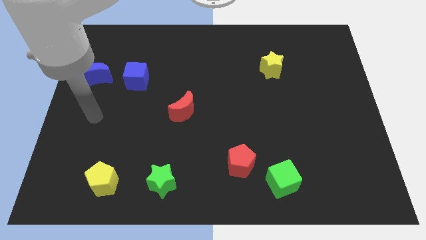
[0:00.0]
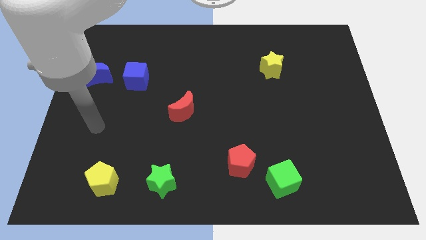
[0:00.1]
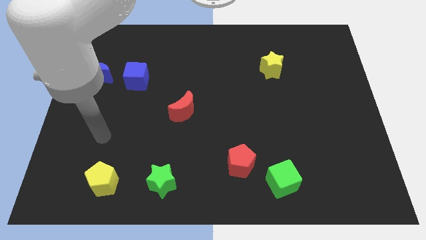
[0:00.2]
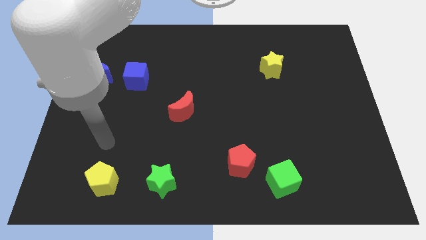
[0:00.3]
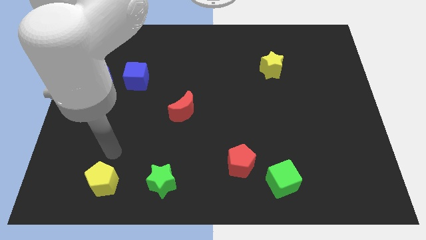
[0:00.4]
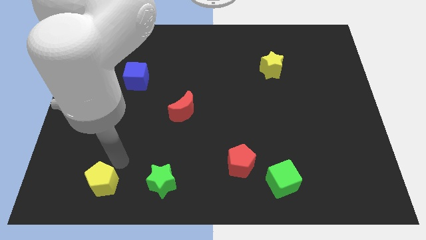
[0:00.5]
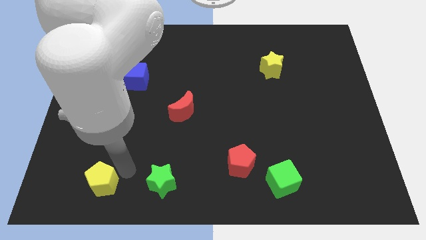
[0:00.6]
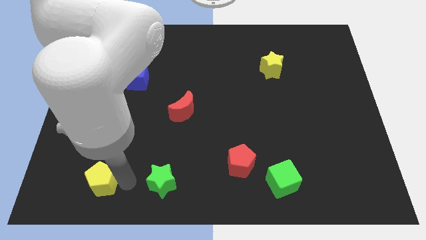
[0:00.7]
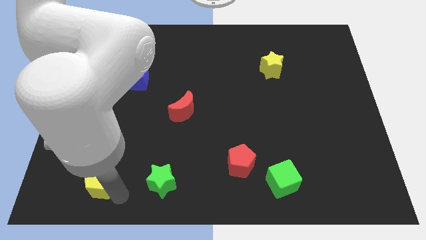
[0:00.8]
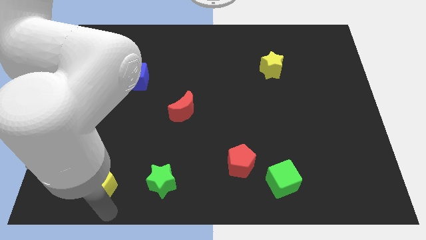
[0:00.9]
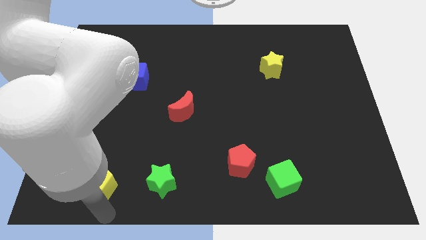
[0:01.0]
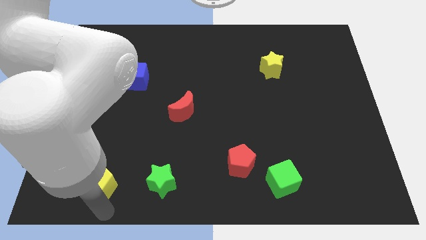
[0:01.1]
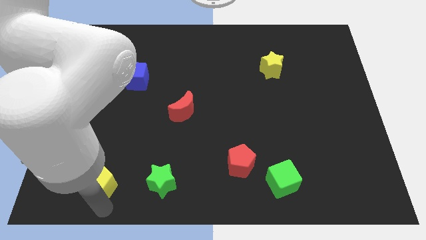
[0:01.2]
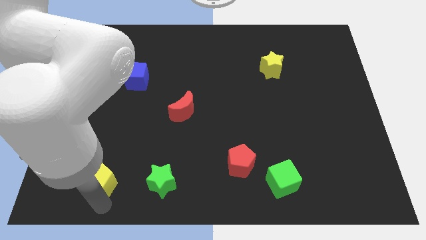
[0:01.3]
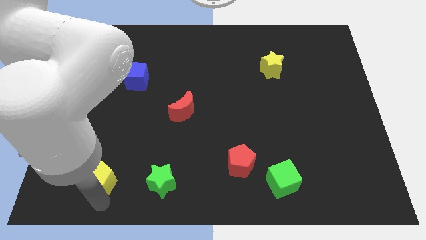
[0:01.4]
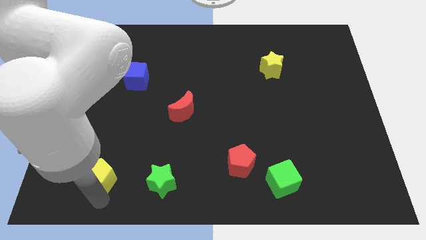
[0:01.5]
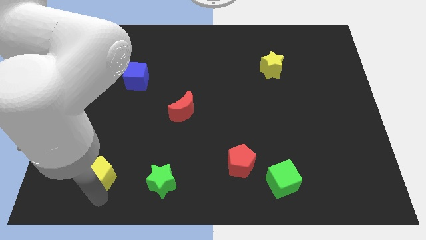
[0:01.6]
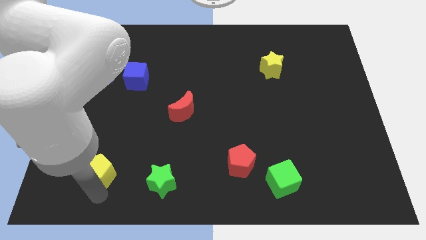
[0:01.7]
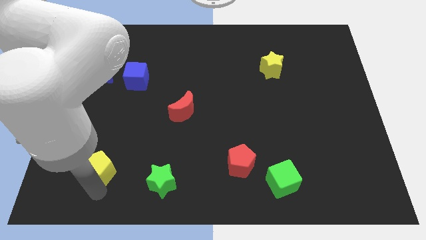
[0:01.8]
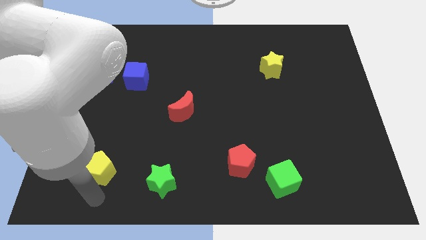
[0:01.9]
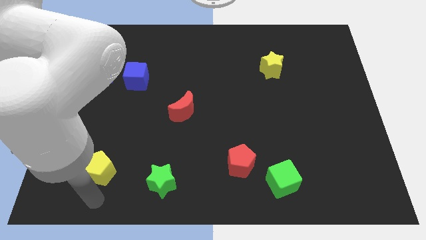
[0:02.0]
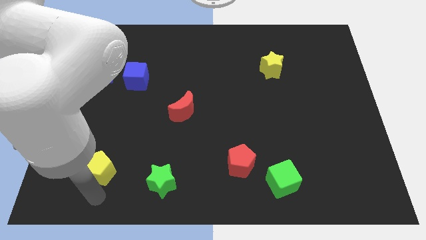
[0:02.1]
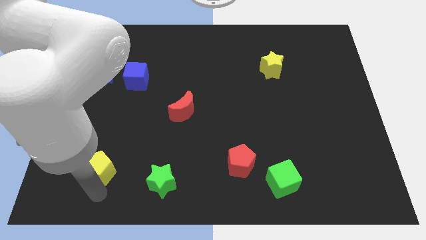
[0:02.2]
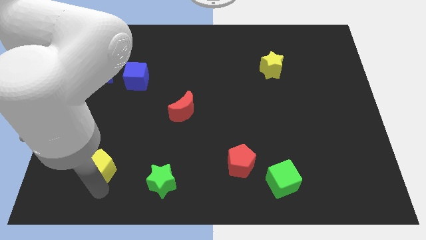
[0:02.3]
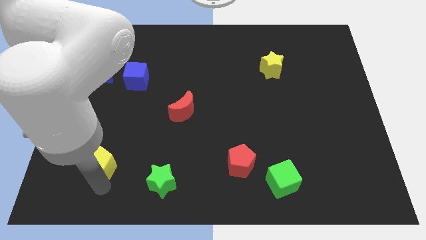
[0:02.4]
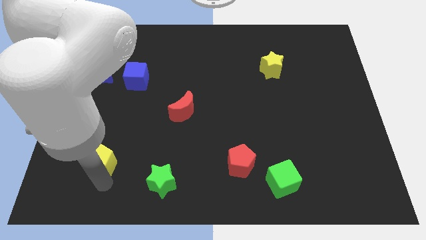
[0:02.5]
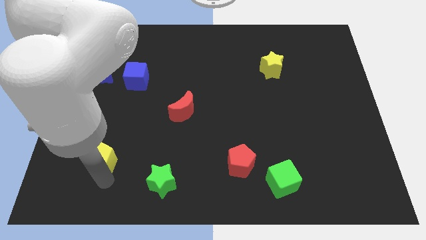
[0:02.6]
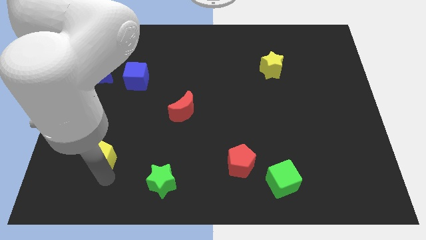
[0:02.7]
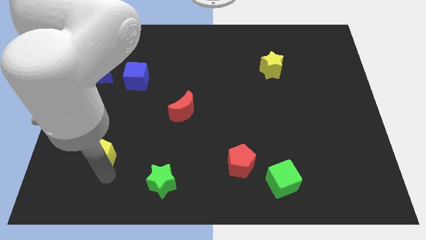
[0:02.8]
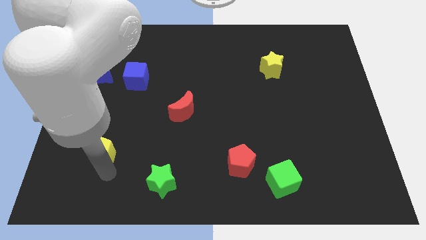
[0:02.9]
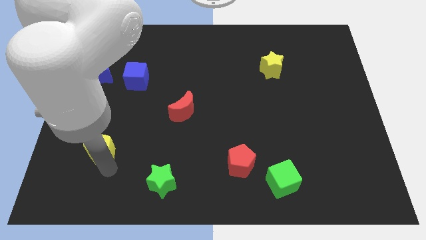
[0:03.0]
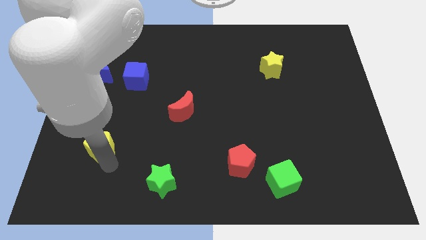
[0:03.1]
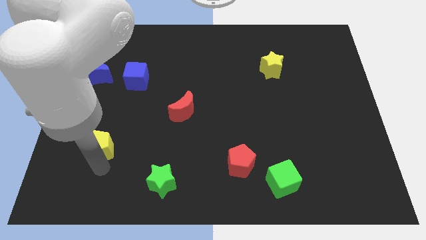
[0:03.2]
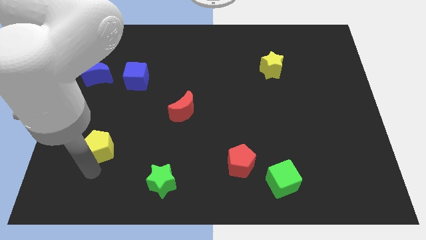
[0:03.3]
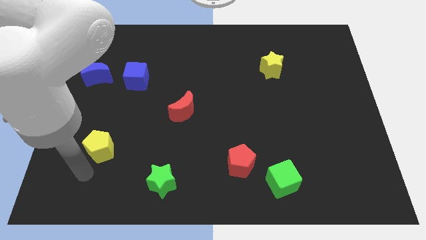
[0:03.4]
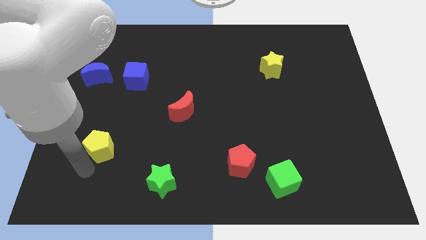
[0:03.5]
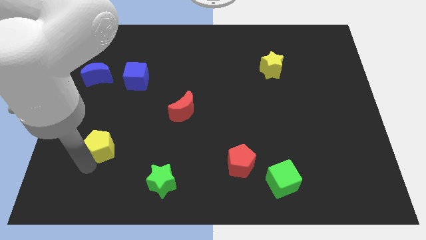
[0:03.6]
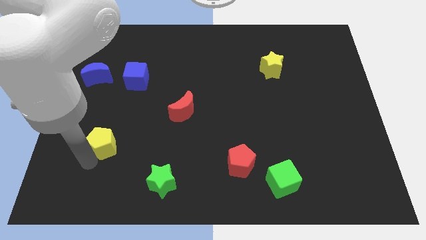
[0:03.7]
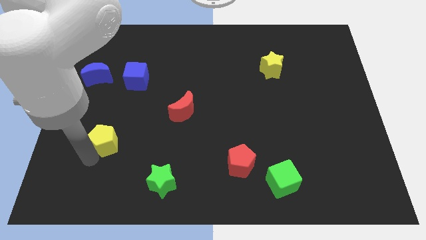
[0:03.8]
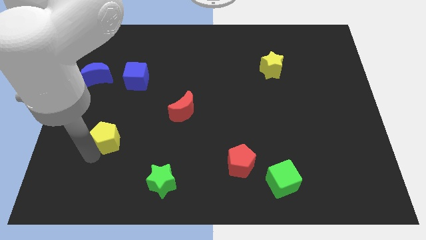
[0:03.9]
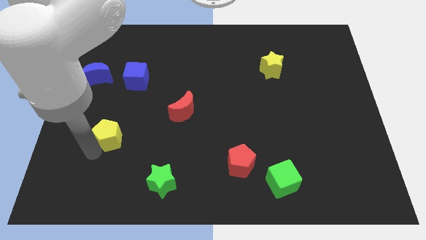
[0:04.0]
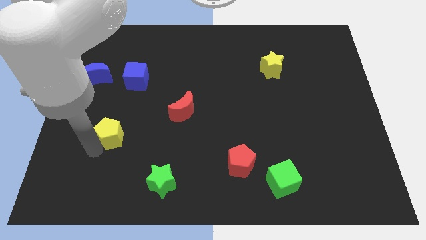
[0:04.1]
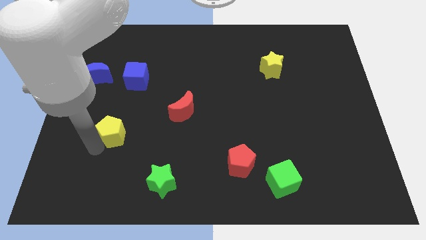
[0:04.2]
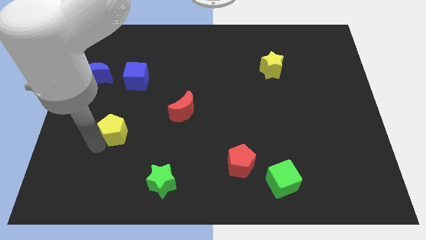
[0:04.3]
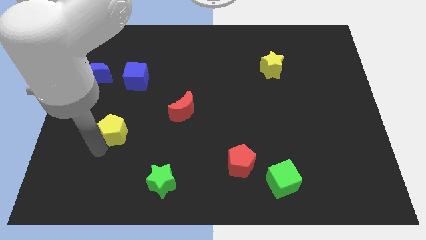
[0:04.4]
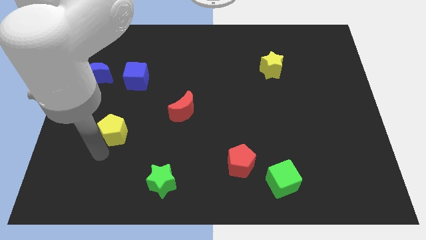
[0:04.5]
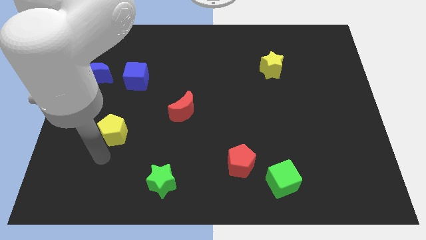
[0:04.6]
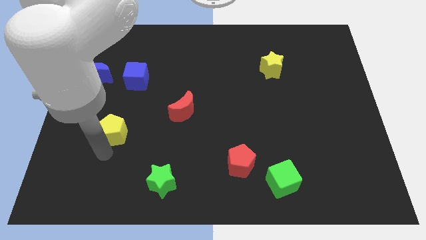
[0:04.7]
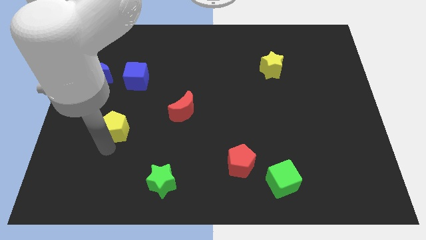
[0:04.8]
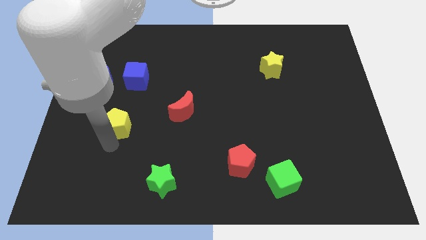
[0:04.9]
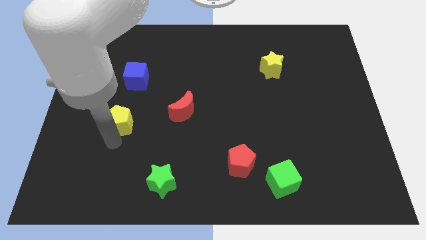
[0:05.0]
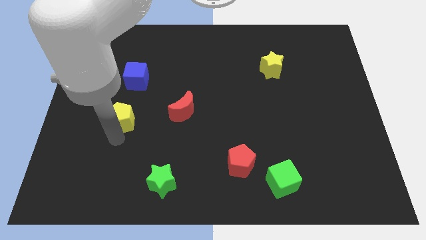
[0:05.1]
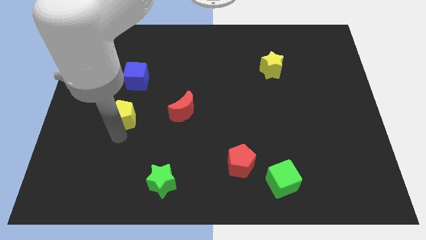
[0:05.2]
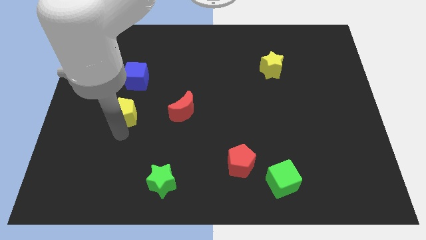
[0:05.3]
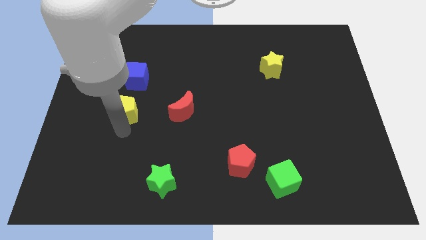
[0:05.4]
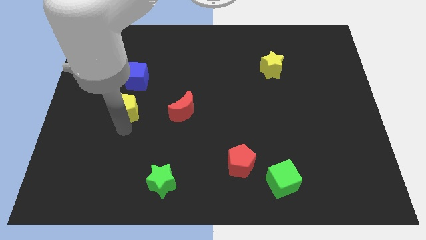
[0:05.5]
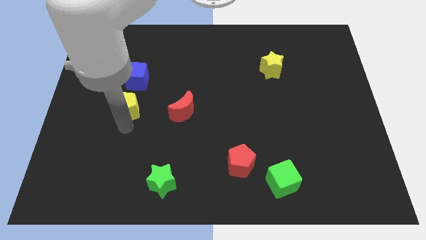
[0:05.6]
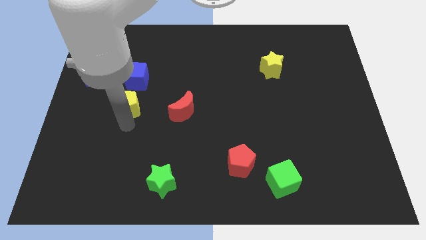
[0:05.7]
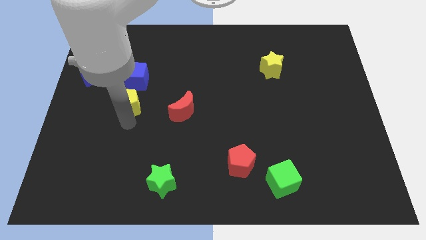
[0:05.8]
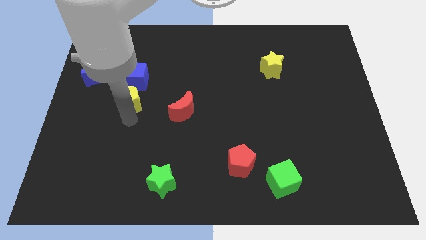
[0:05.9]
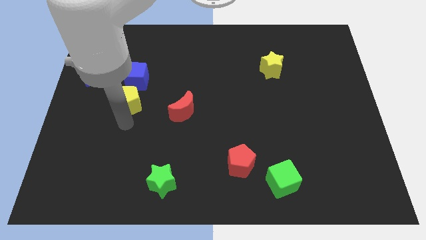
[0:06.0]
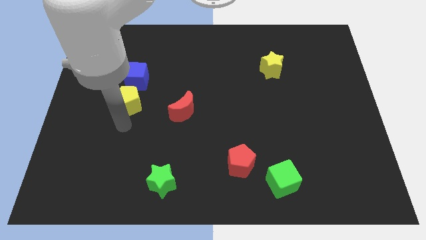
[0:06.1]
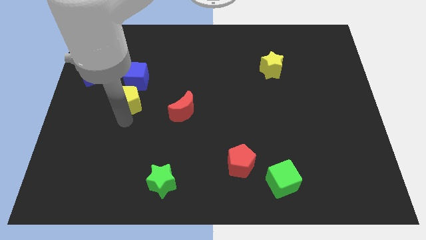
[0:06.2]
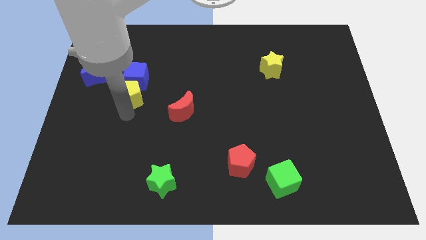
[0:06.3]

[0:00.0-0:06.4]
move the yellow pentagon towards the blue cube
